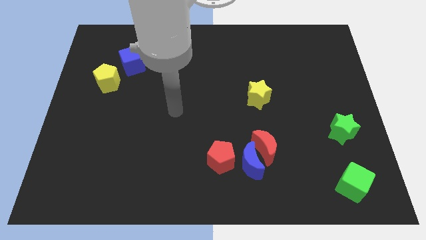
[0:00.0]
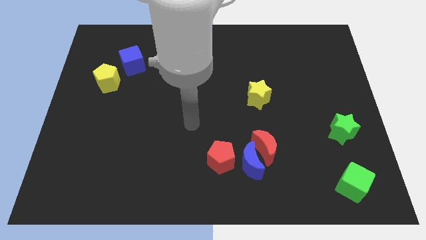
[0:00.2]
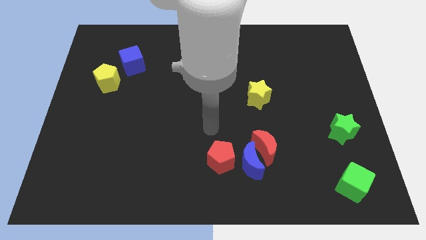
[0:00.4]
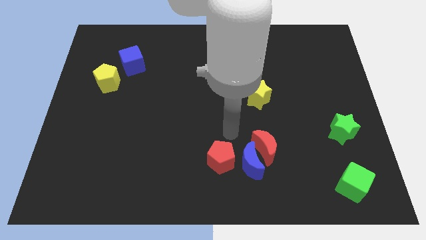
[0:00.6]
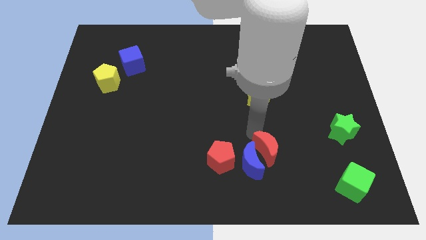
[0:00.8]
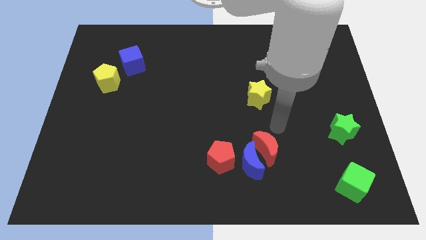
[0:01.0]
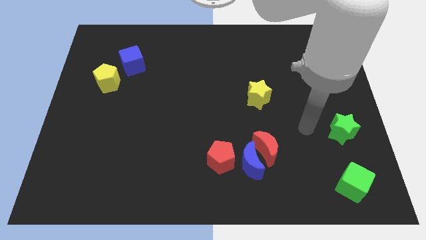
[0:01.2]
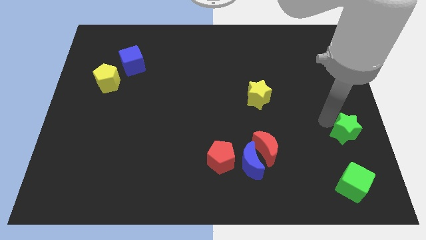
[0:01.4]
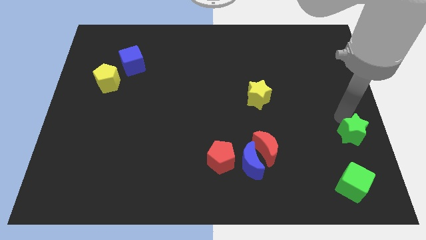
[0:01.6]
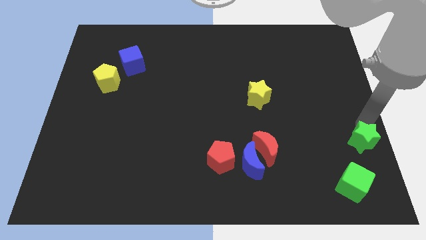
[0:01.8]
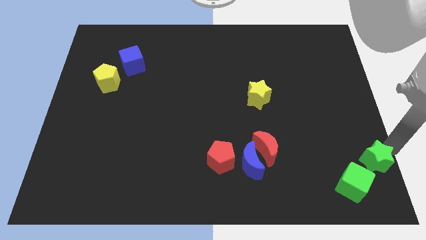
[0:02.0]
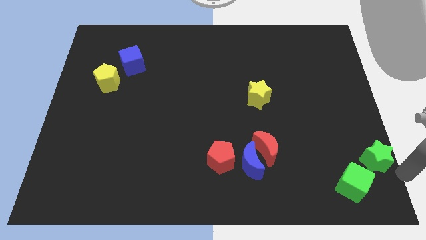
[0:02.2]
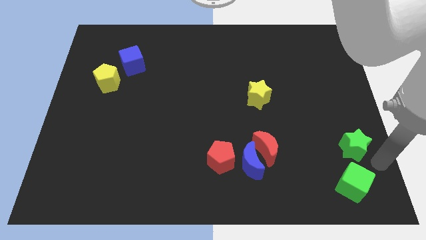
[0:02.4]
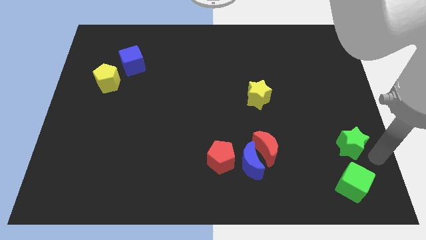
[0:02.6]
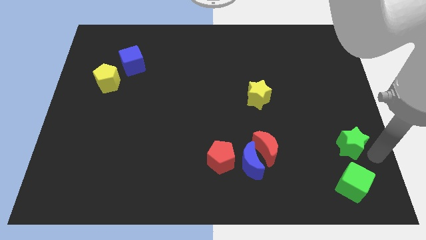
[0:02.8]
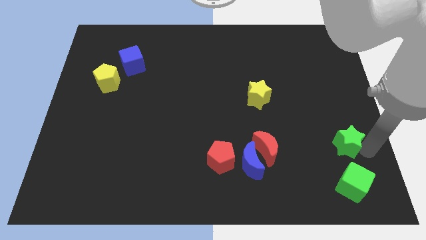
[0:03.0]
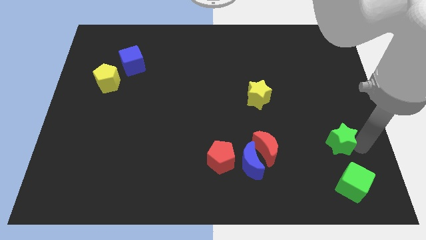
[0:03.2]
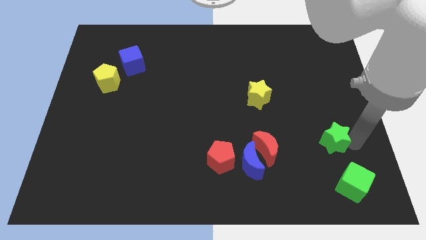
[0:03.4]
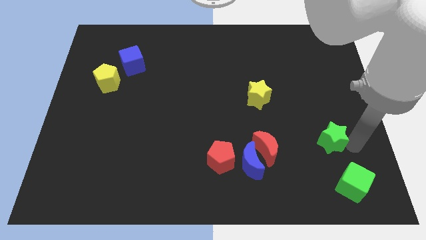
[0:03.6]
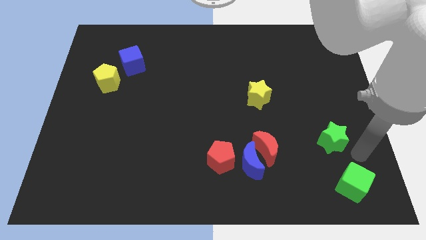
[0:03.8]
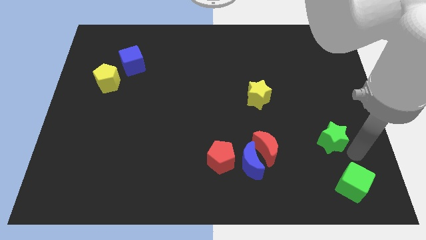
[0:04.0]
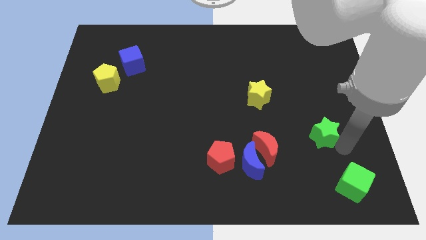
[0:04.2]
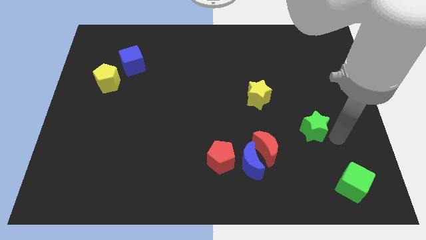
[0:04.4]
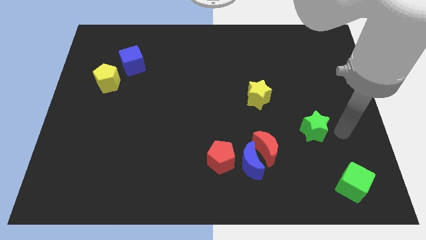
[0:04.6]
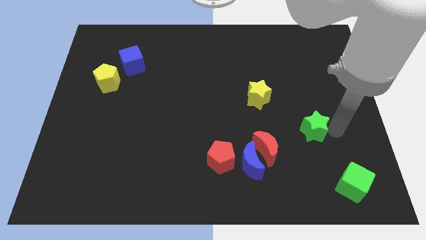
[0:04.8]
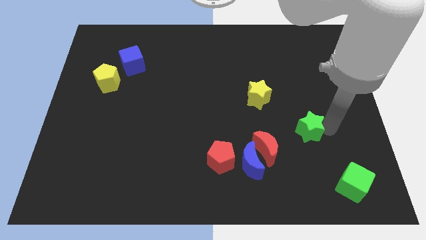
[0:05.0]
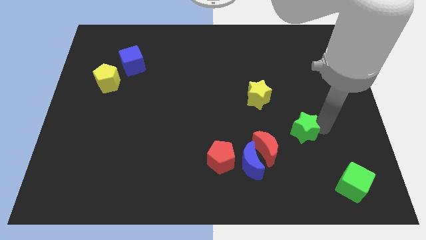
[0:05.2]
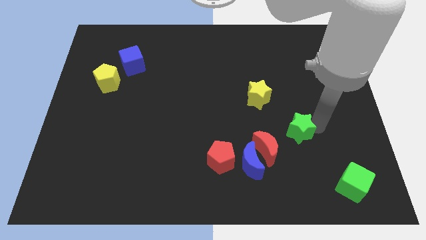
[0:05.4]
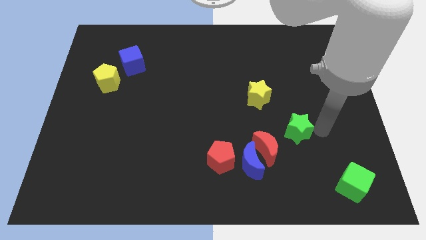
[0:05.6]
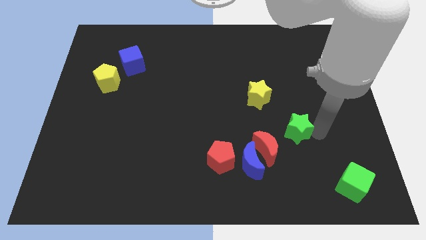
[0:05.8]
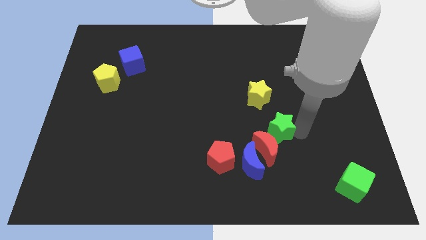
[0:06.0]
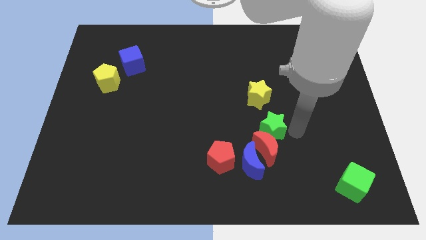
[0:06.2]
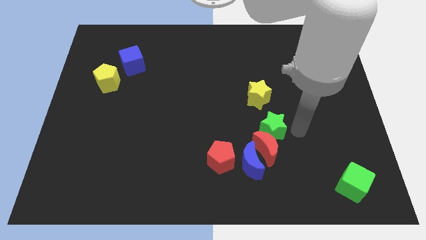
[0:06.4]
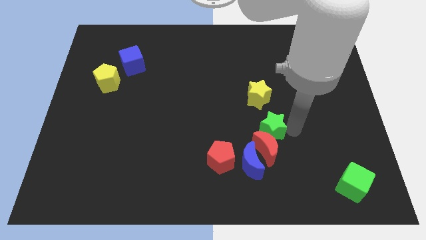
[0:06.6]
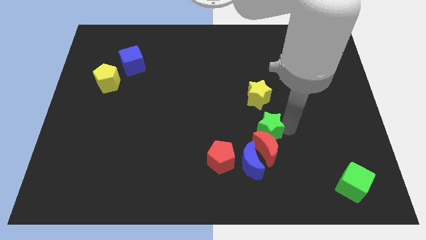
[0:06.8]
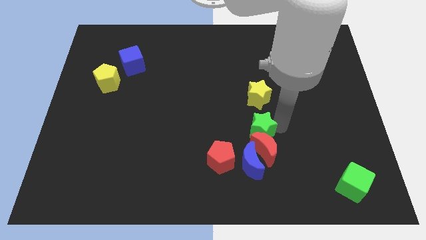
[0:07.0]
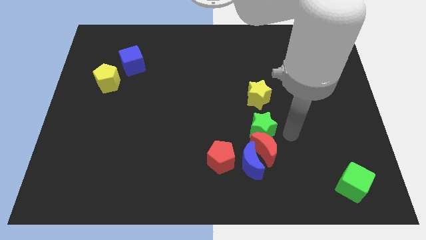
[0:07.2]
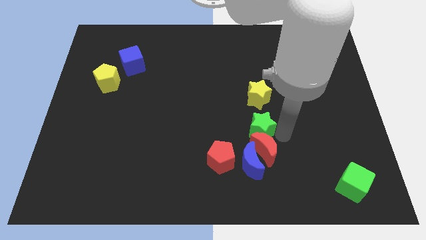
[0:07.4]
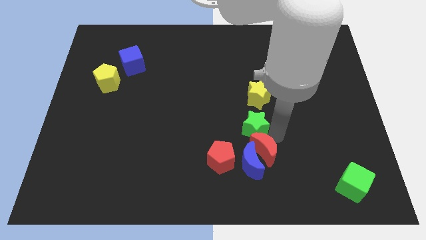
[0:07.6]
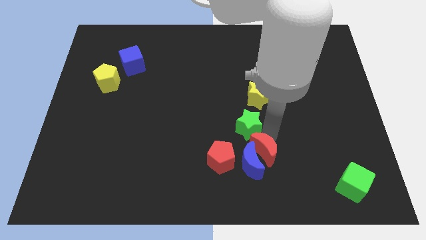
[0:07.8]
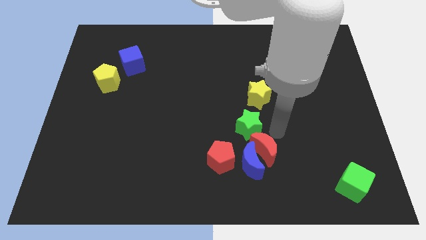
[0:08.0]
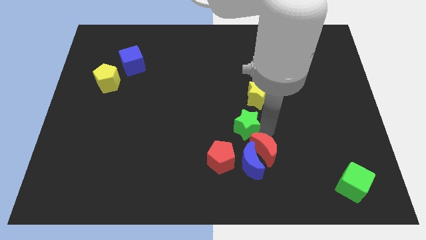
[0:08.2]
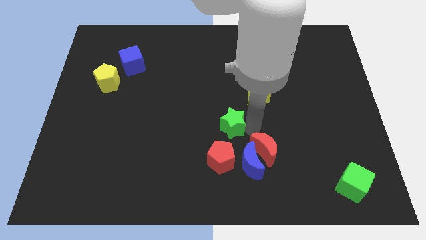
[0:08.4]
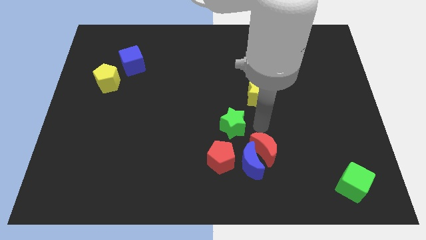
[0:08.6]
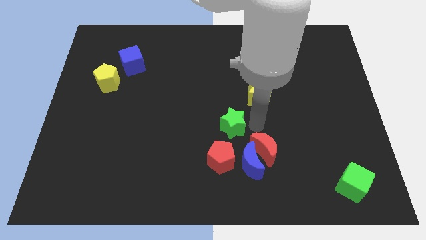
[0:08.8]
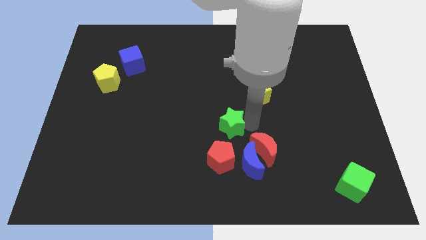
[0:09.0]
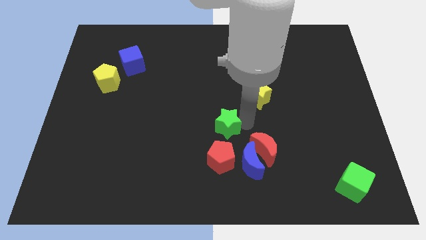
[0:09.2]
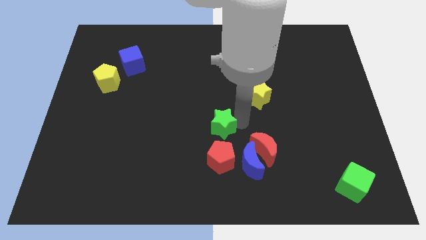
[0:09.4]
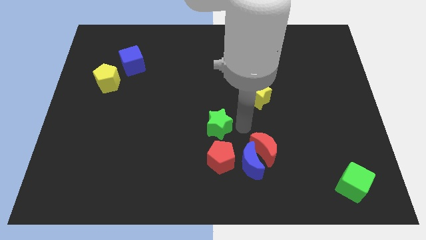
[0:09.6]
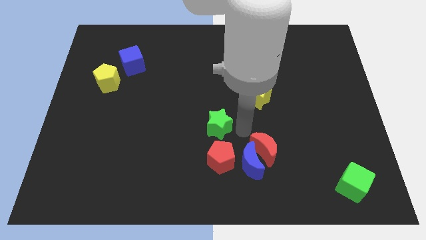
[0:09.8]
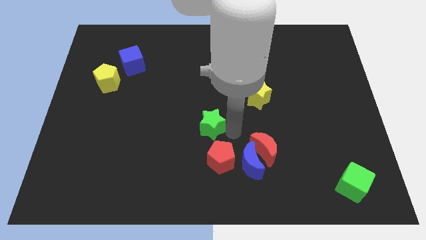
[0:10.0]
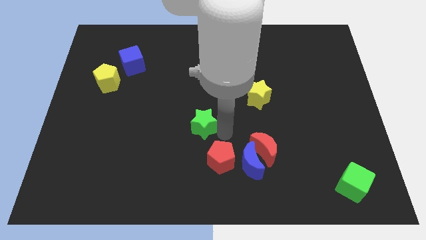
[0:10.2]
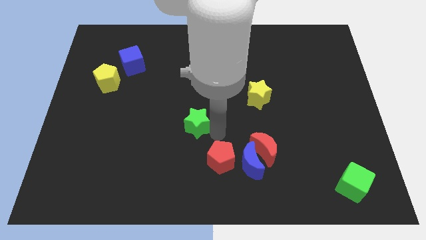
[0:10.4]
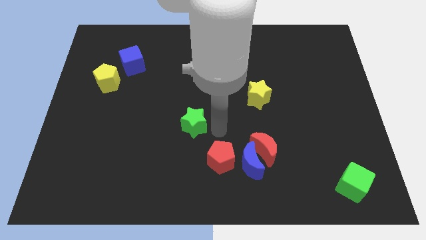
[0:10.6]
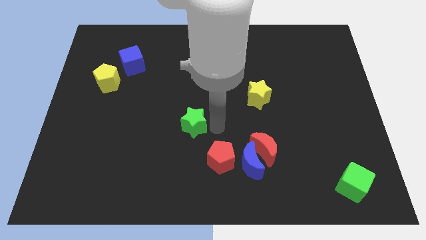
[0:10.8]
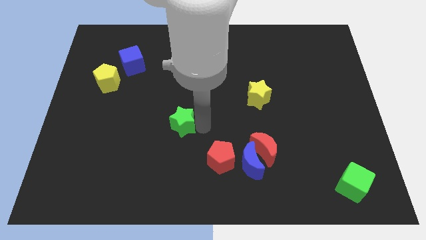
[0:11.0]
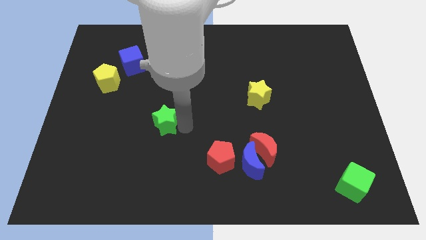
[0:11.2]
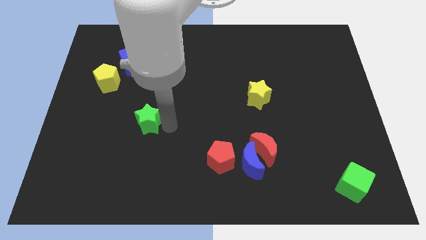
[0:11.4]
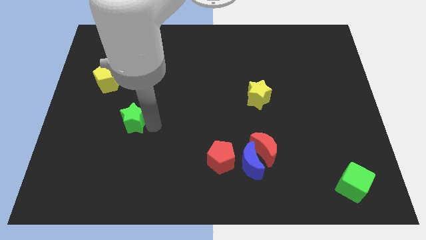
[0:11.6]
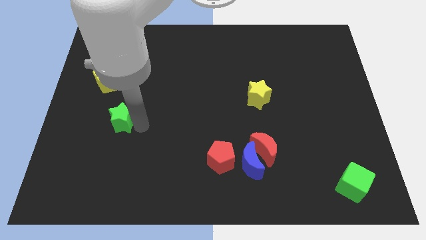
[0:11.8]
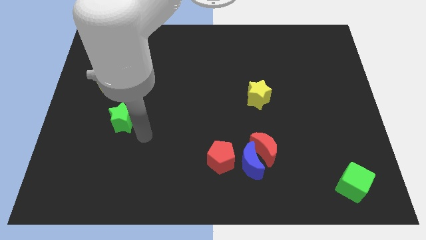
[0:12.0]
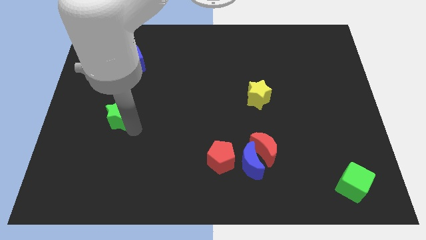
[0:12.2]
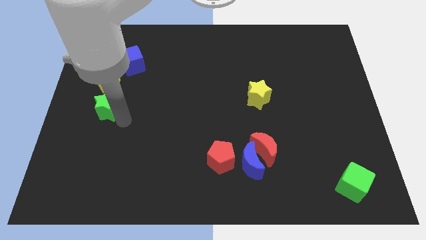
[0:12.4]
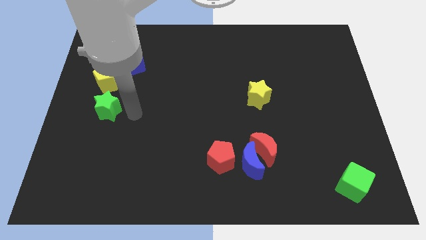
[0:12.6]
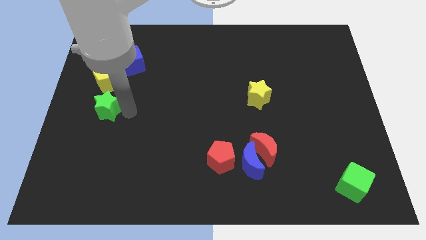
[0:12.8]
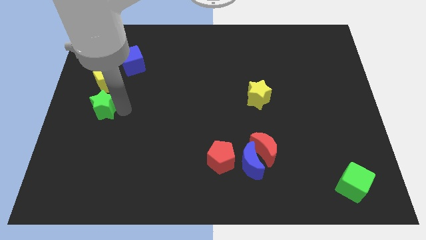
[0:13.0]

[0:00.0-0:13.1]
put the green star to the left side
